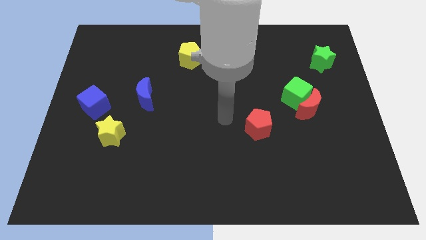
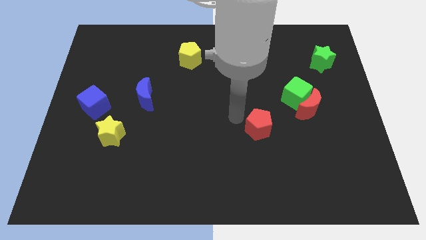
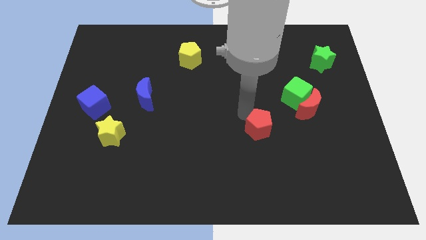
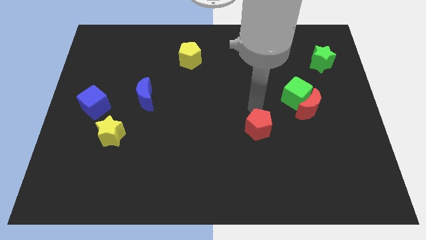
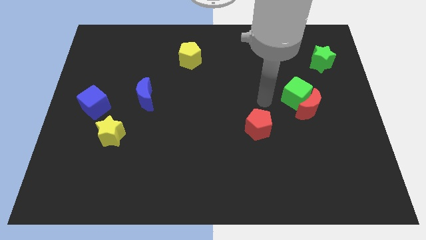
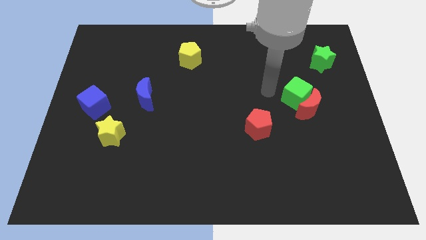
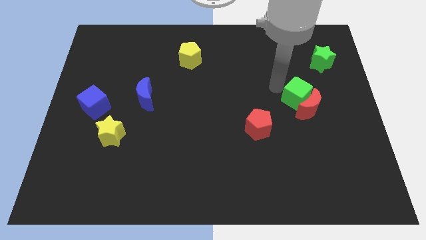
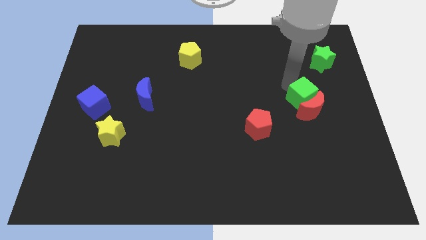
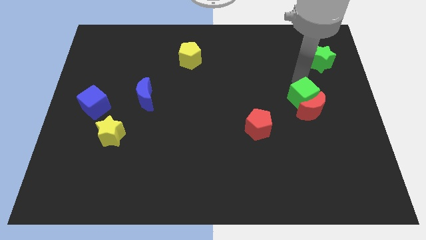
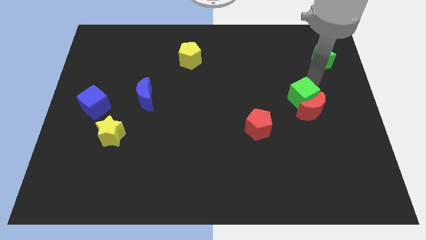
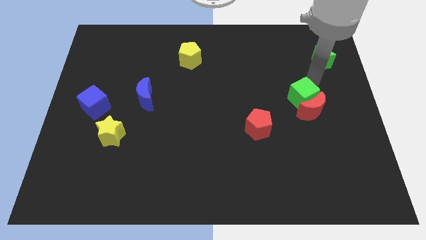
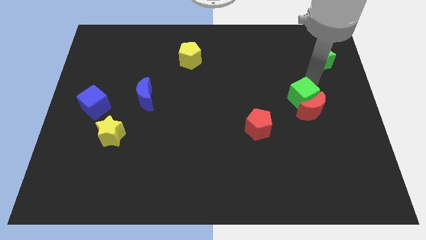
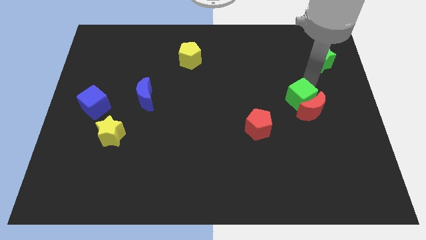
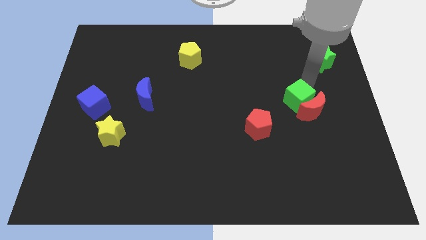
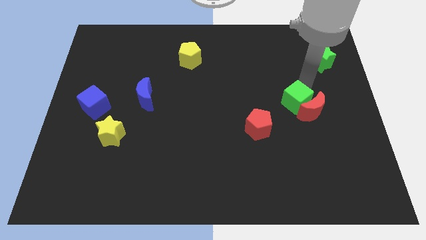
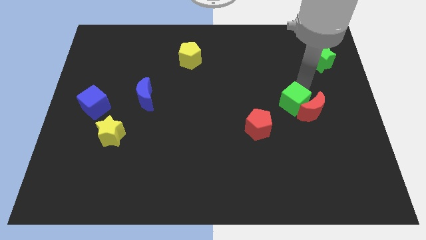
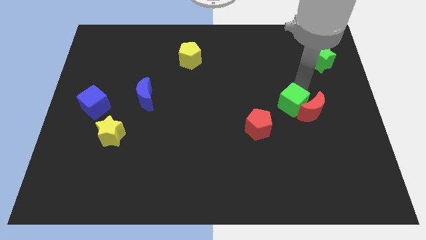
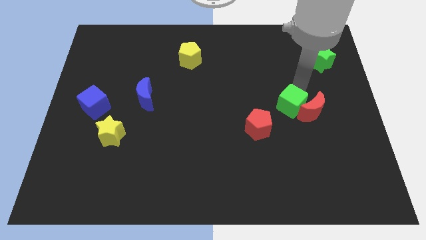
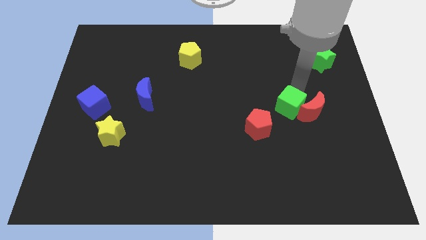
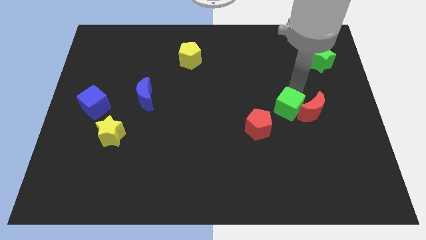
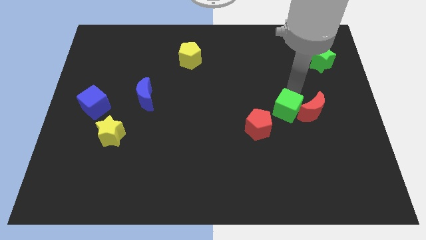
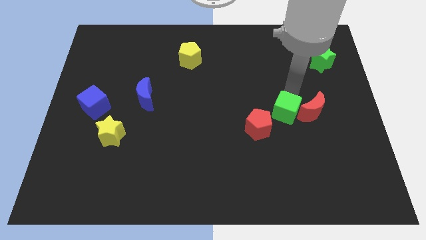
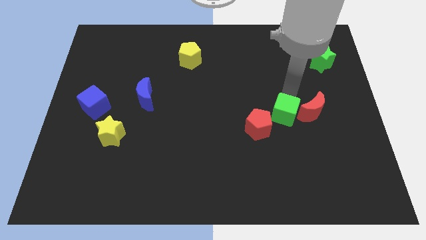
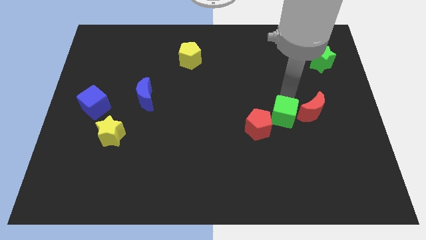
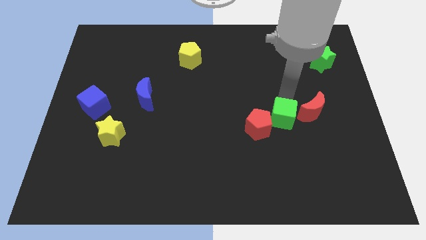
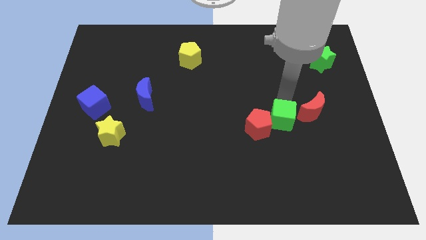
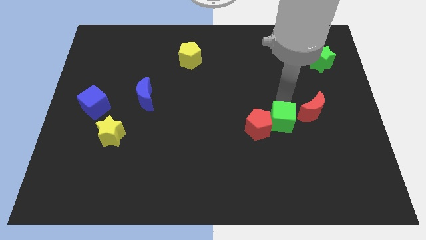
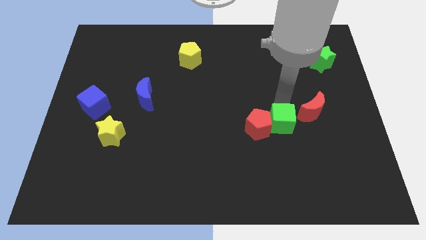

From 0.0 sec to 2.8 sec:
move the green cube a bit downwards

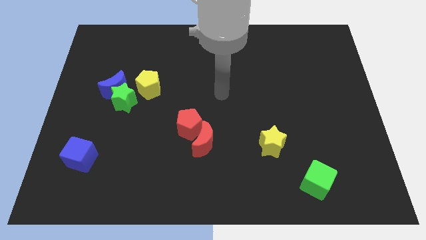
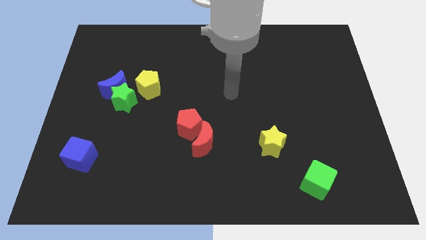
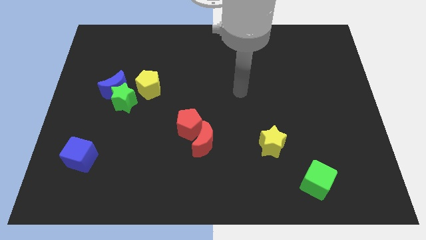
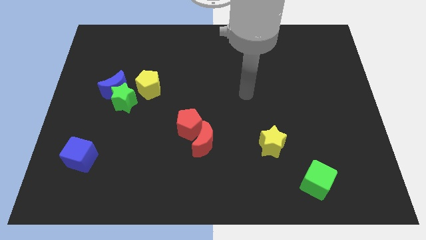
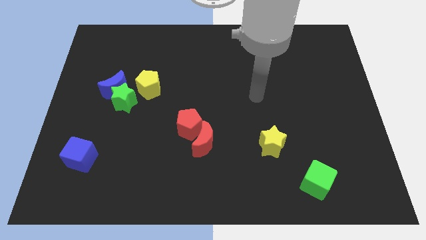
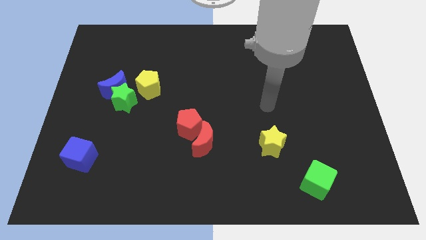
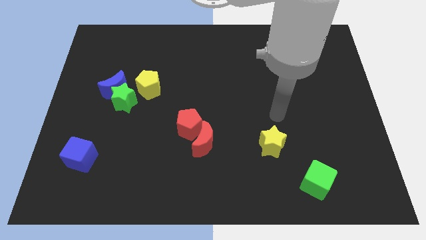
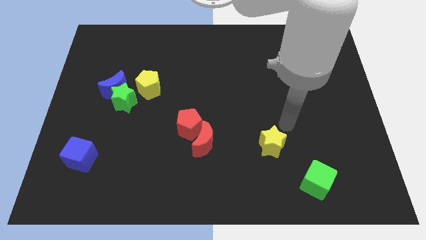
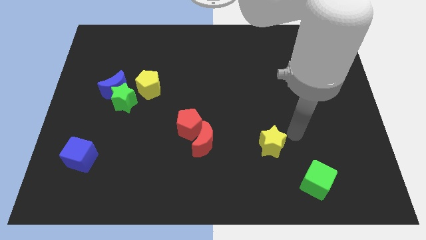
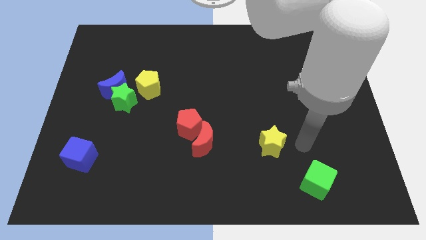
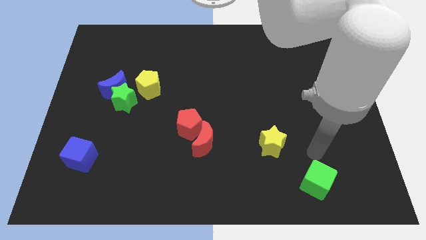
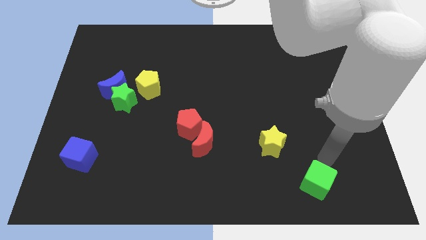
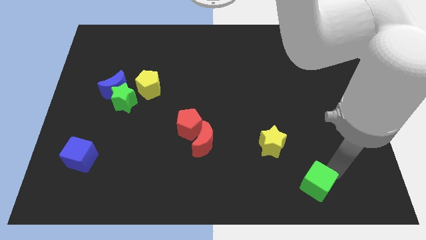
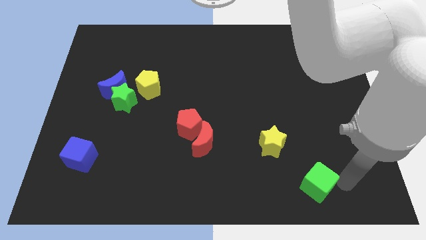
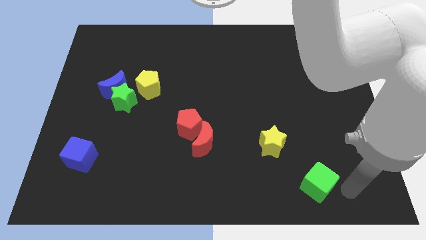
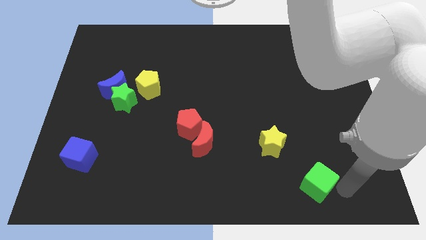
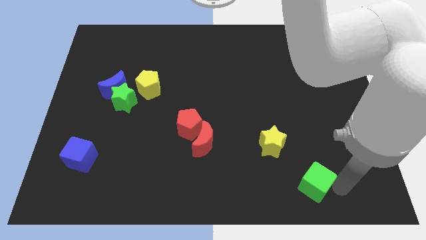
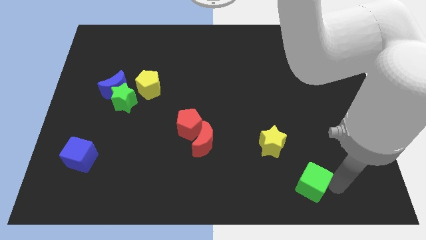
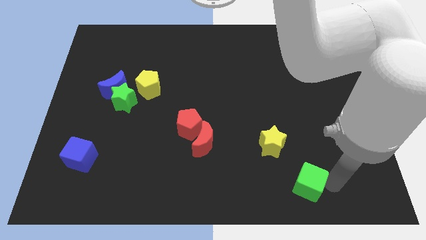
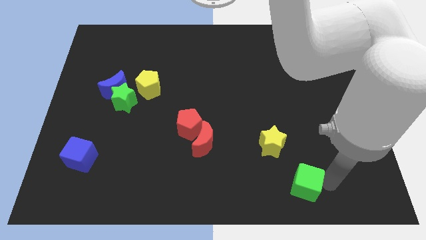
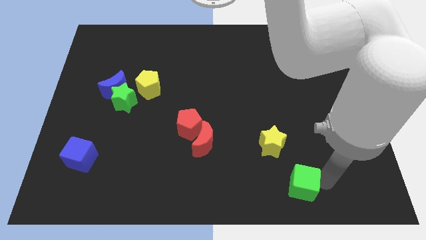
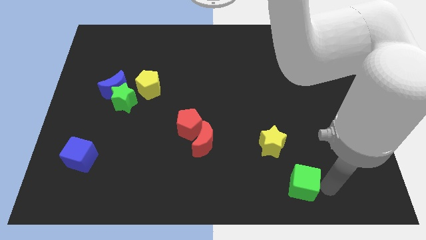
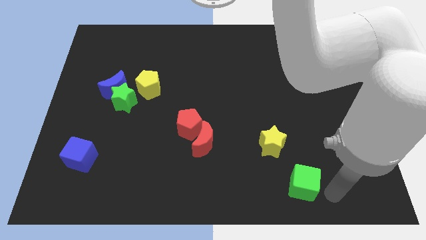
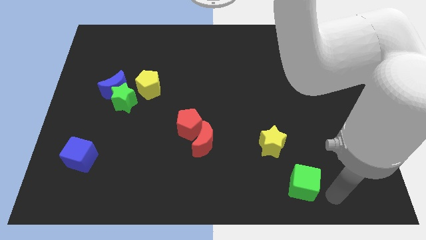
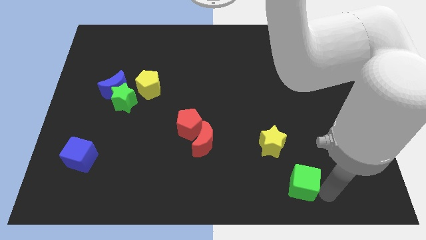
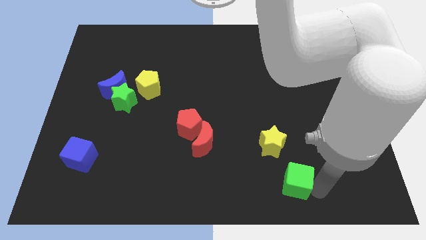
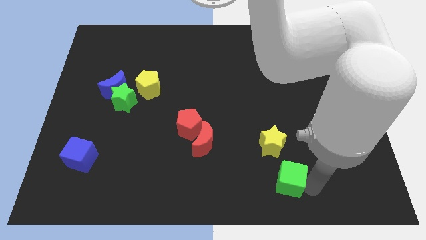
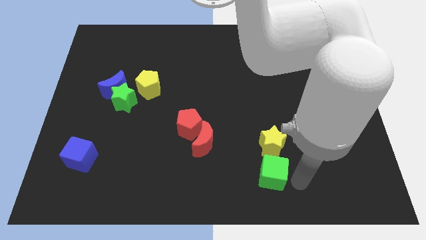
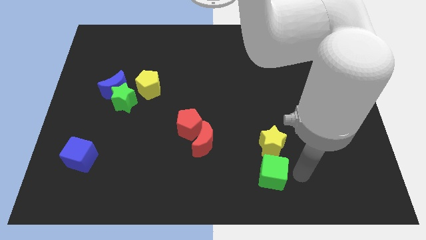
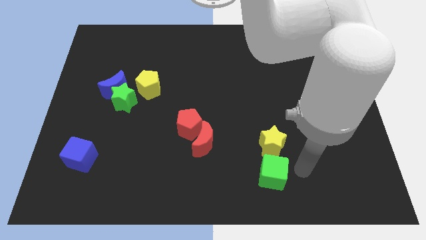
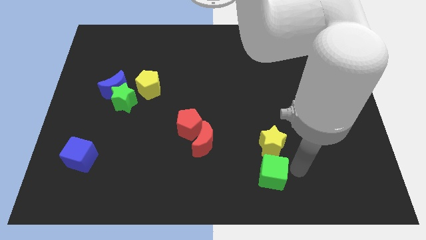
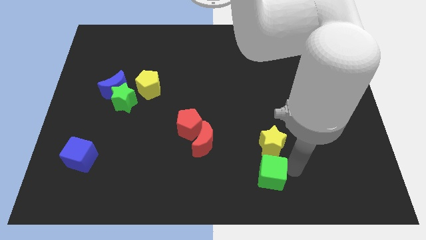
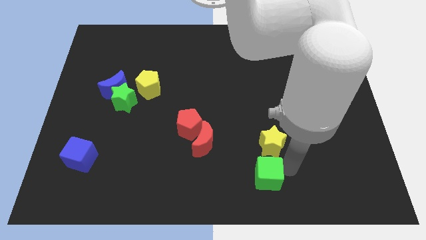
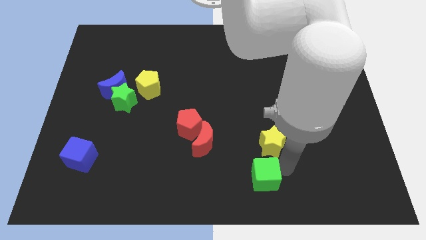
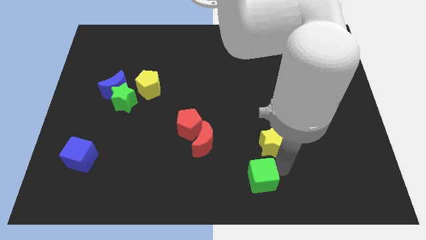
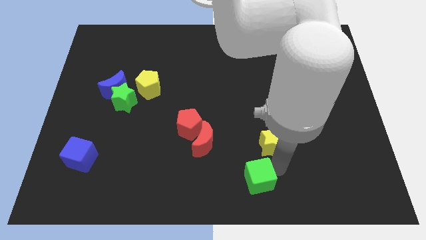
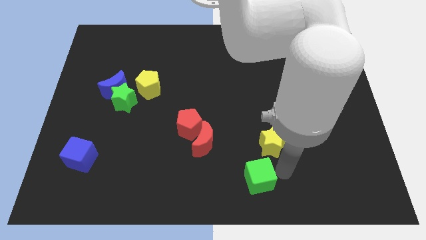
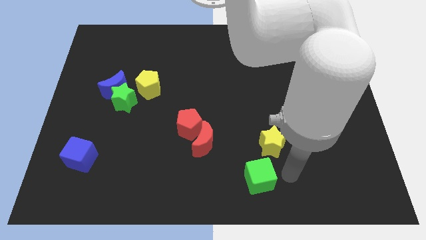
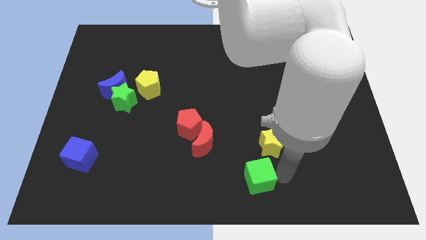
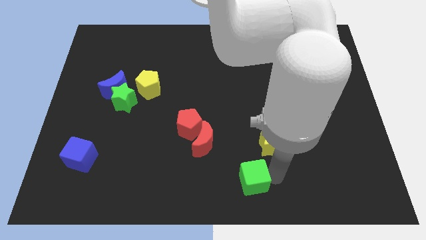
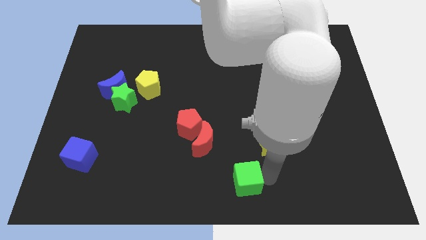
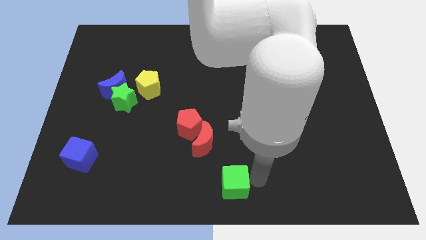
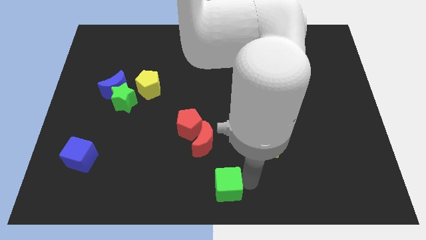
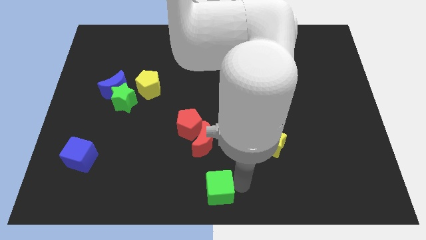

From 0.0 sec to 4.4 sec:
slide the green cube left

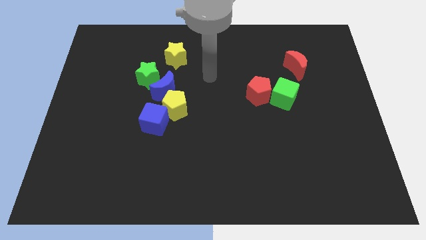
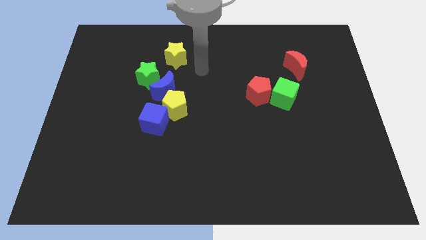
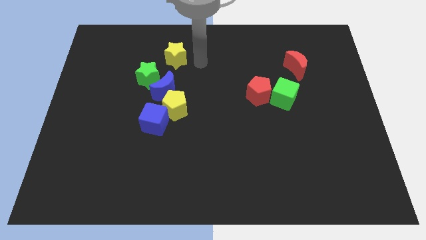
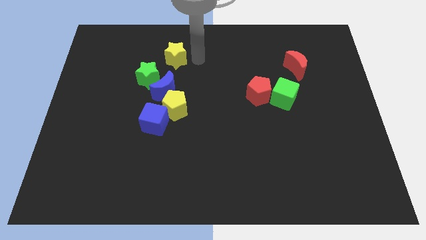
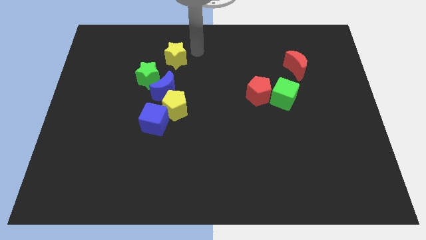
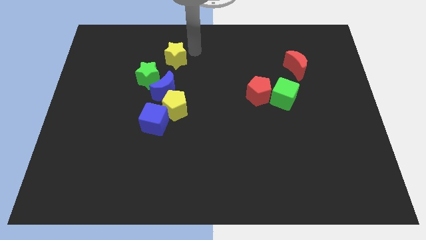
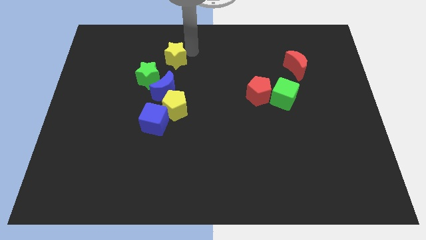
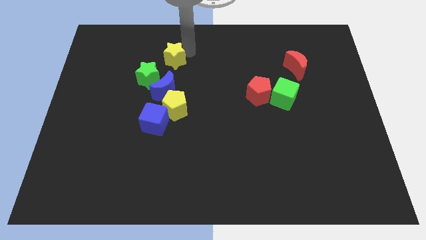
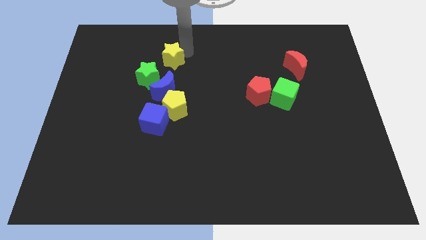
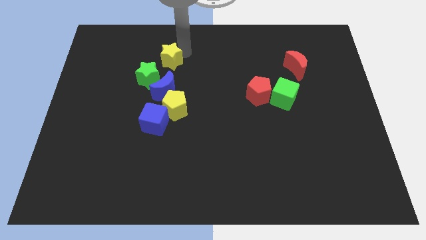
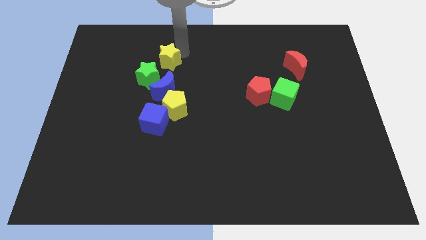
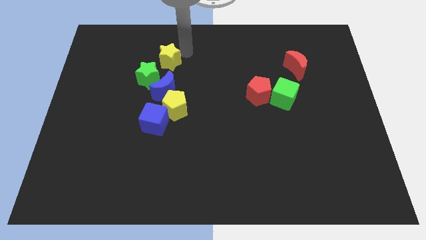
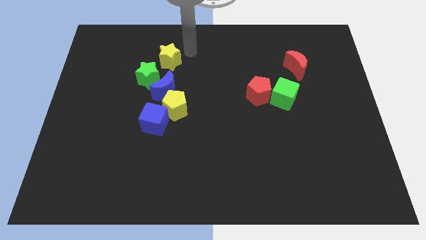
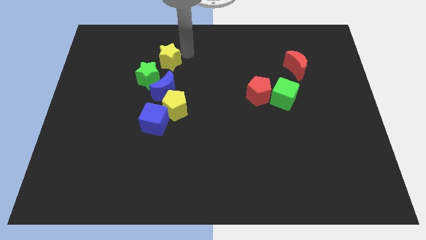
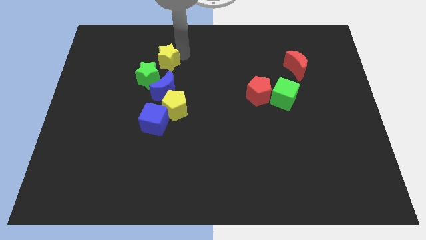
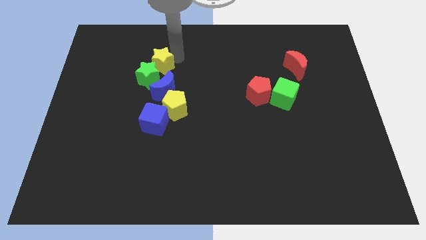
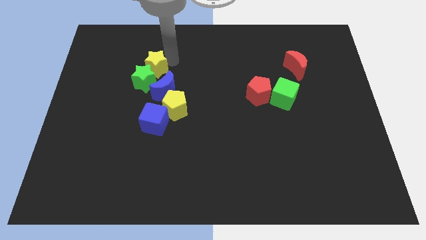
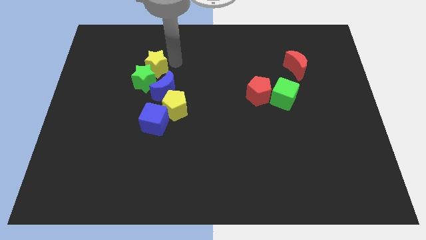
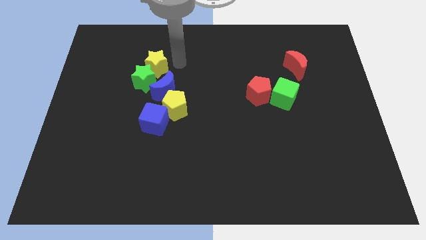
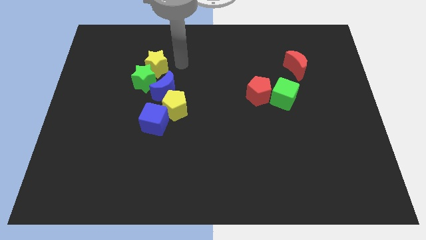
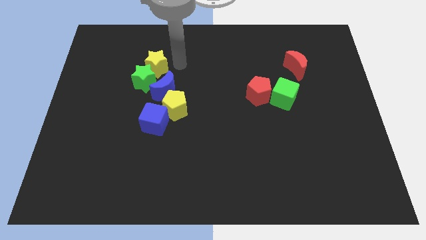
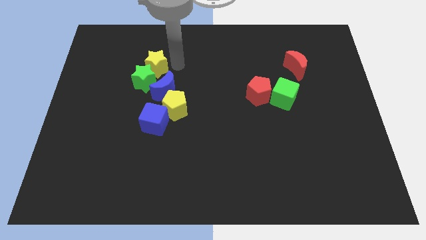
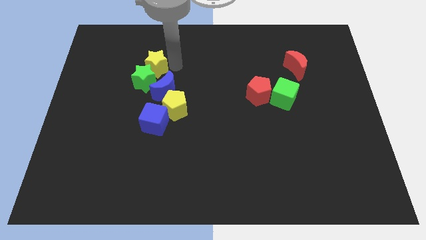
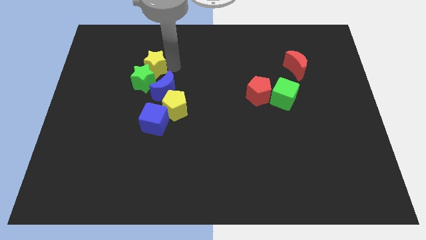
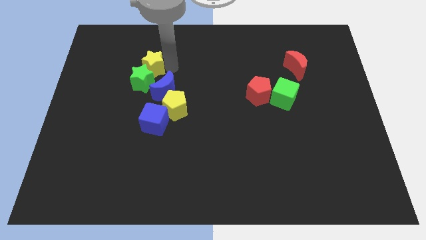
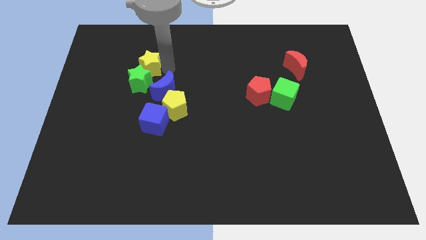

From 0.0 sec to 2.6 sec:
slightly slide the yellow star down and left
